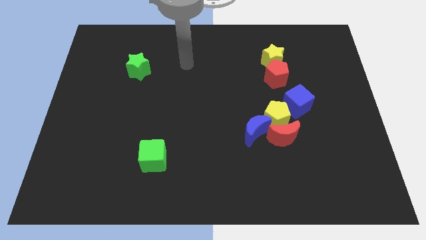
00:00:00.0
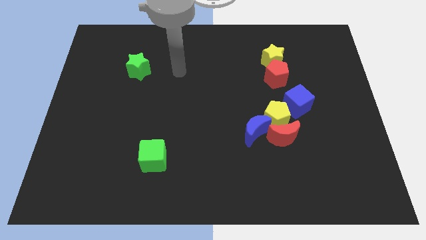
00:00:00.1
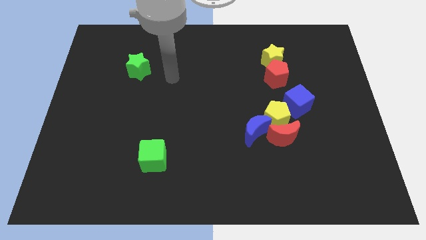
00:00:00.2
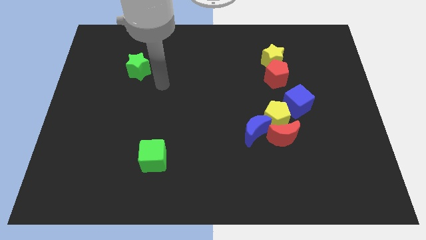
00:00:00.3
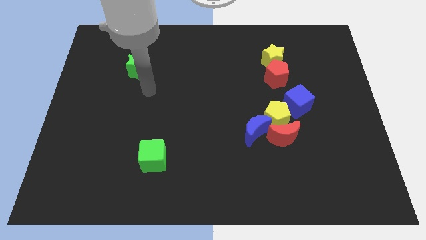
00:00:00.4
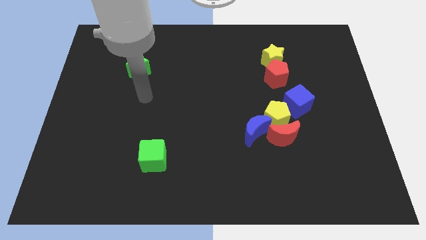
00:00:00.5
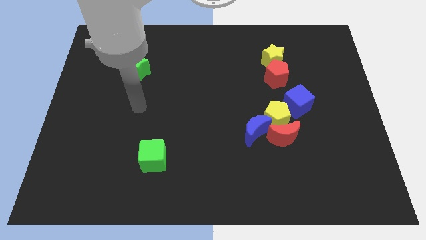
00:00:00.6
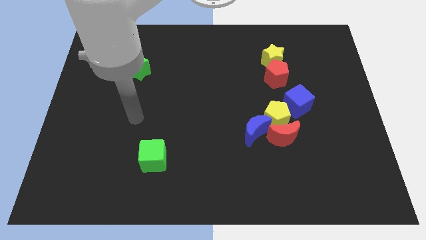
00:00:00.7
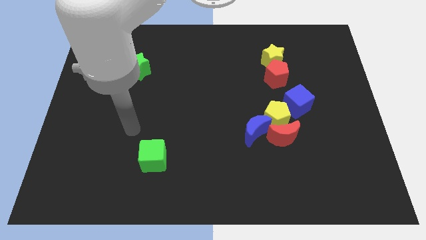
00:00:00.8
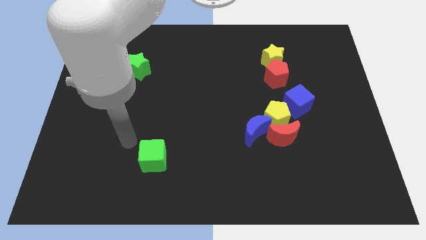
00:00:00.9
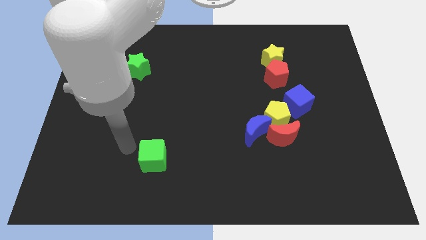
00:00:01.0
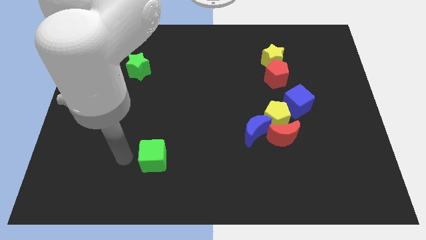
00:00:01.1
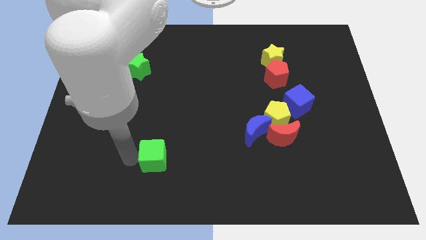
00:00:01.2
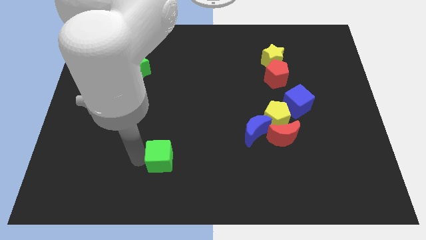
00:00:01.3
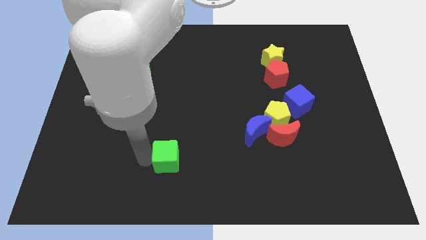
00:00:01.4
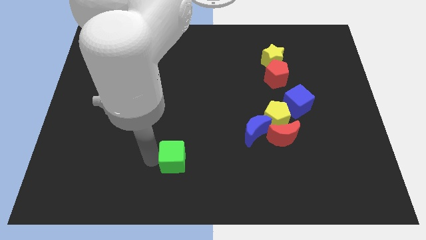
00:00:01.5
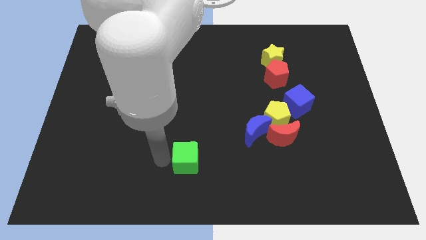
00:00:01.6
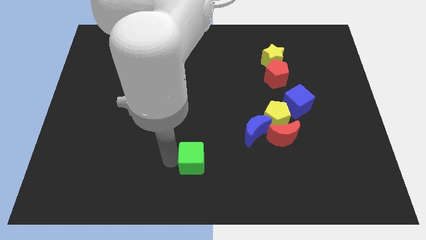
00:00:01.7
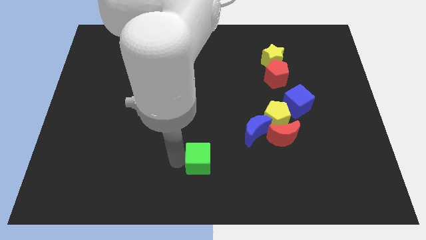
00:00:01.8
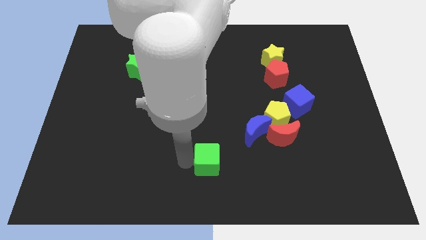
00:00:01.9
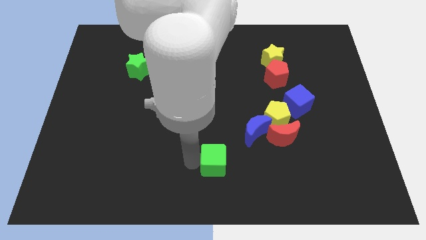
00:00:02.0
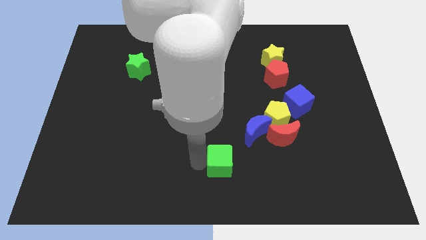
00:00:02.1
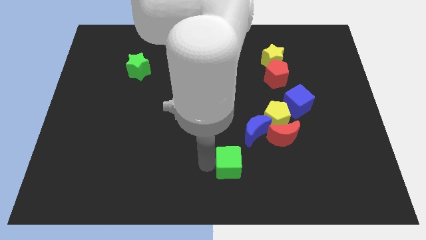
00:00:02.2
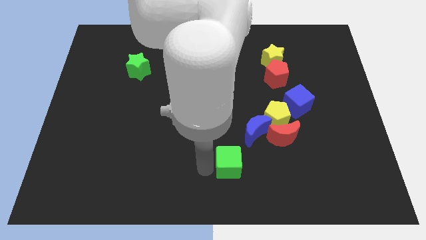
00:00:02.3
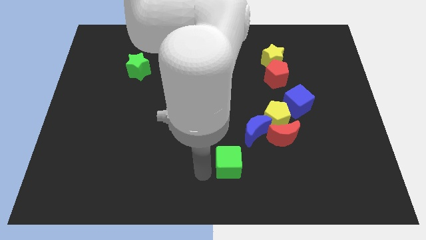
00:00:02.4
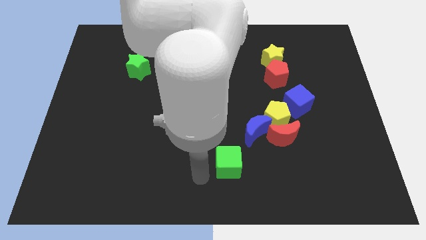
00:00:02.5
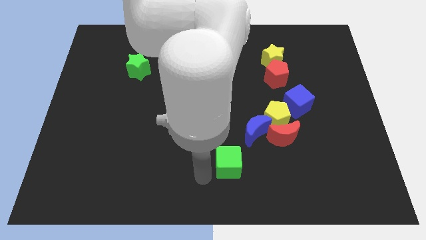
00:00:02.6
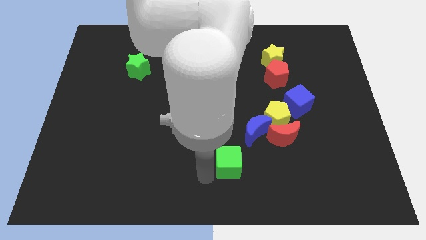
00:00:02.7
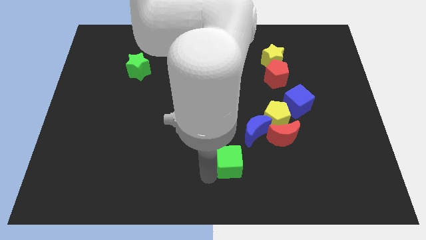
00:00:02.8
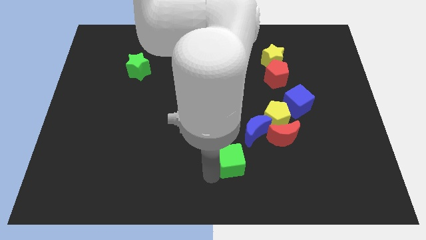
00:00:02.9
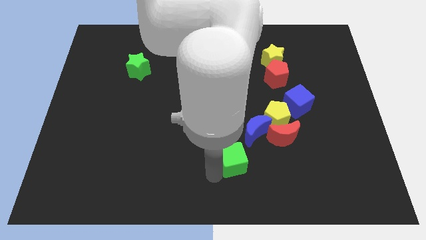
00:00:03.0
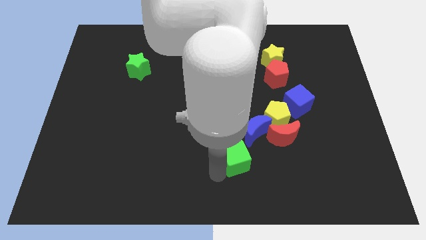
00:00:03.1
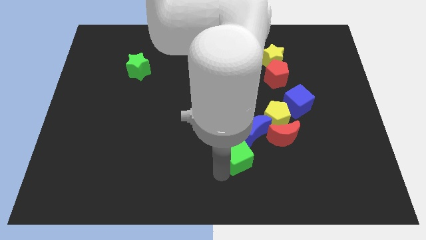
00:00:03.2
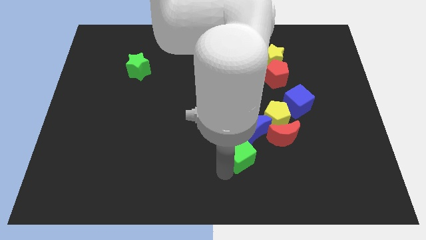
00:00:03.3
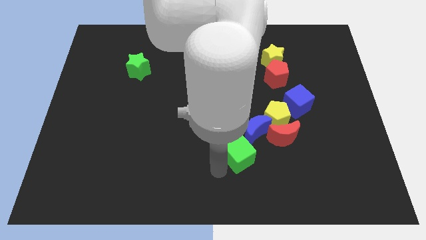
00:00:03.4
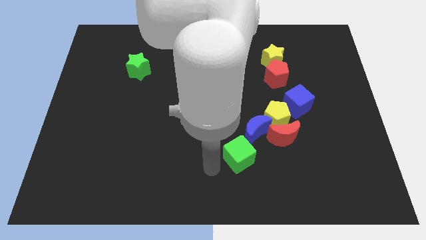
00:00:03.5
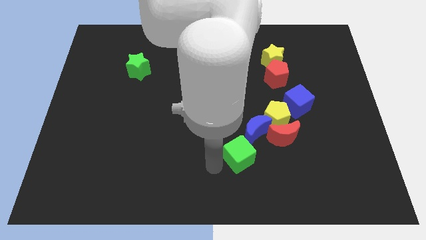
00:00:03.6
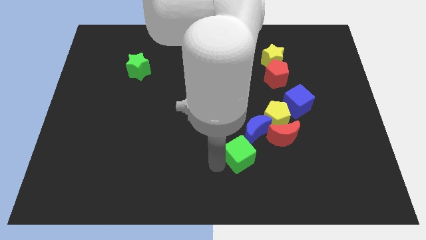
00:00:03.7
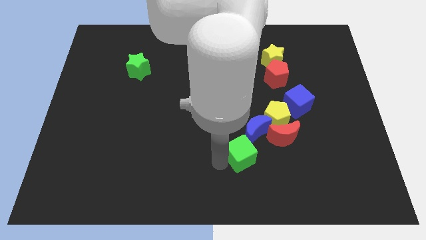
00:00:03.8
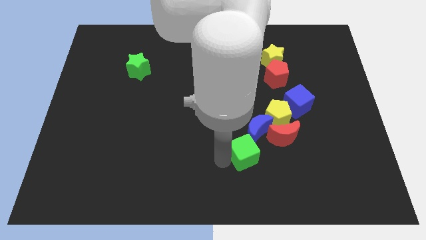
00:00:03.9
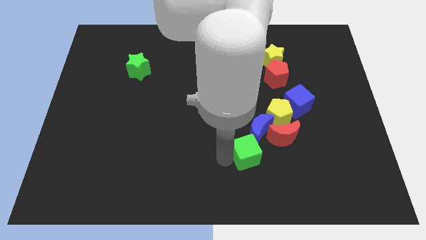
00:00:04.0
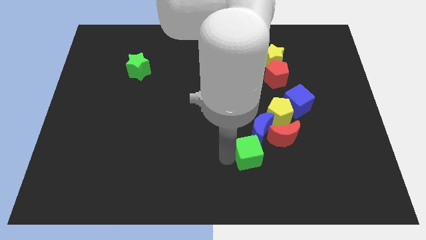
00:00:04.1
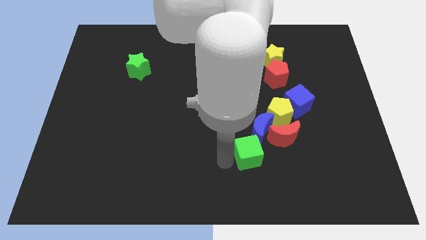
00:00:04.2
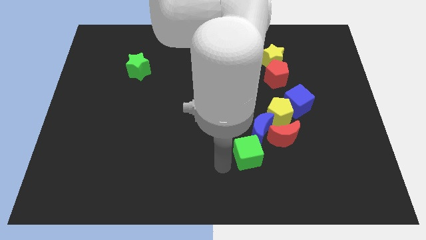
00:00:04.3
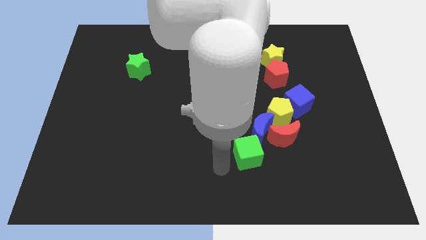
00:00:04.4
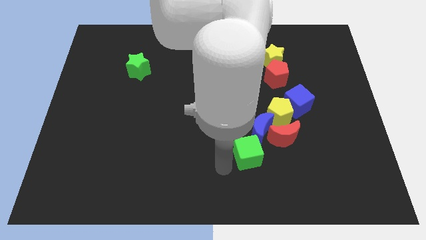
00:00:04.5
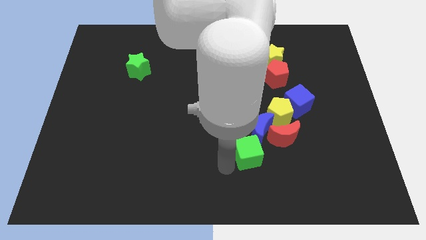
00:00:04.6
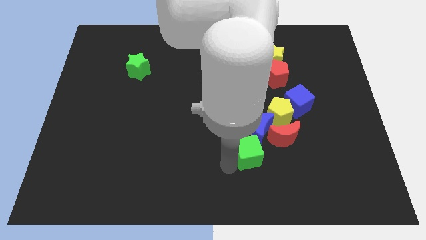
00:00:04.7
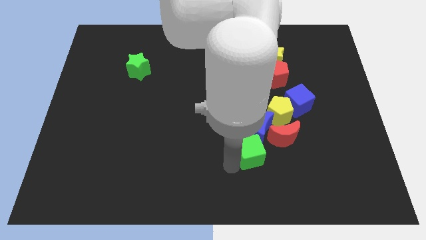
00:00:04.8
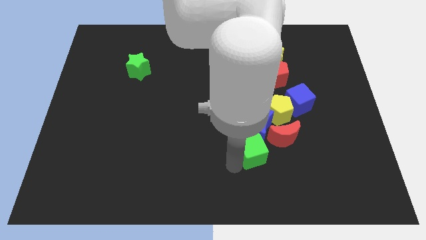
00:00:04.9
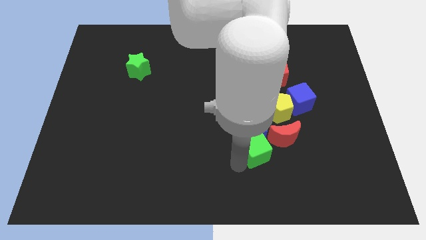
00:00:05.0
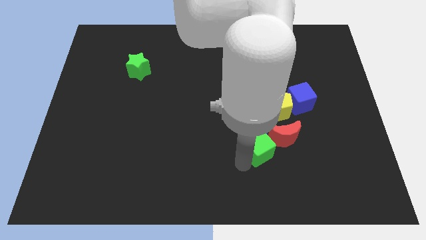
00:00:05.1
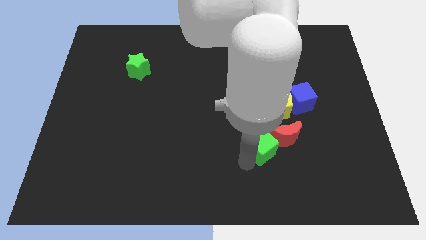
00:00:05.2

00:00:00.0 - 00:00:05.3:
slide the green cube next to the red moon

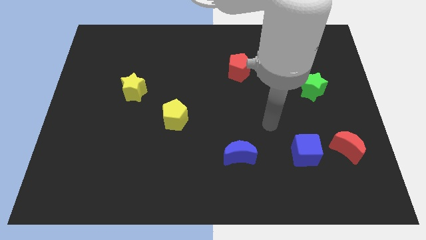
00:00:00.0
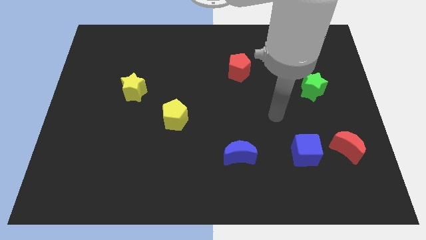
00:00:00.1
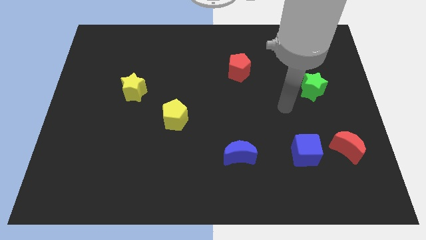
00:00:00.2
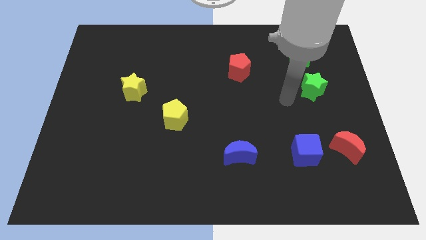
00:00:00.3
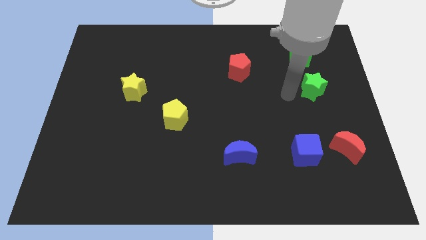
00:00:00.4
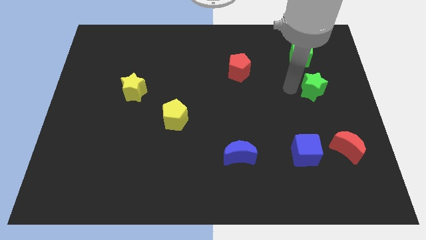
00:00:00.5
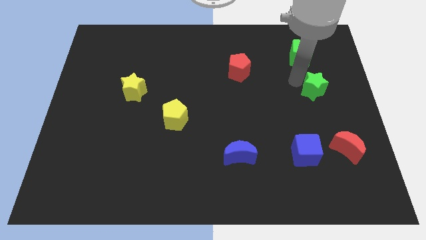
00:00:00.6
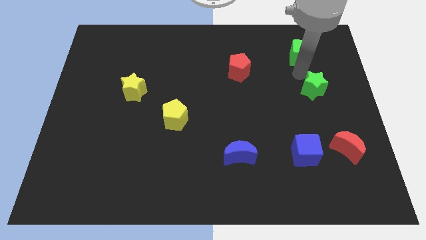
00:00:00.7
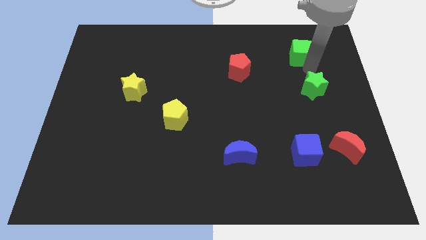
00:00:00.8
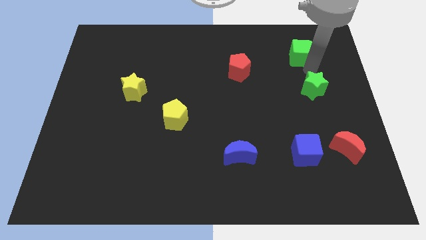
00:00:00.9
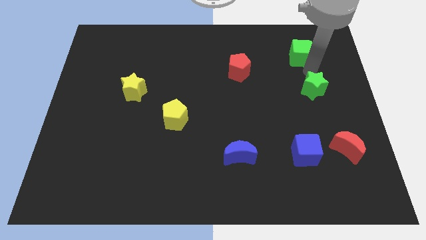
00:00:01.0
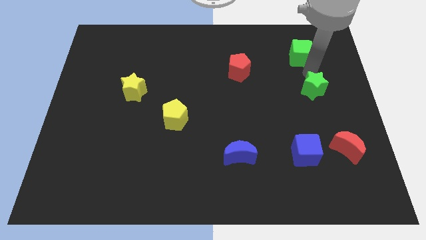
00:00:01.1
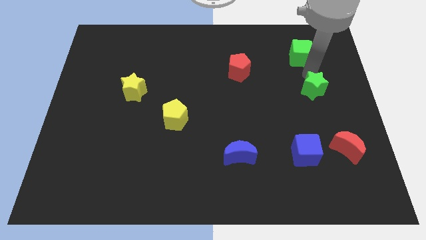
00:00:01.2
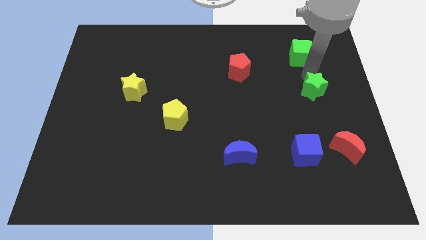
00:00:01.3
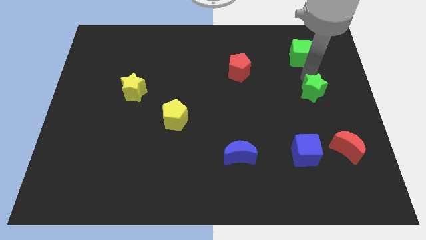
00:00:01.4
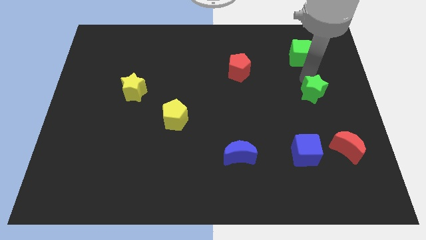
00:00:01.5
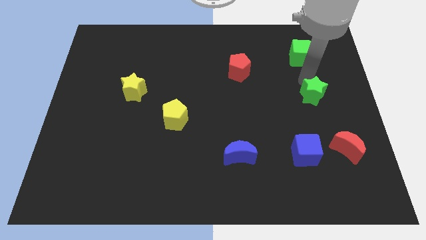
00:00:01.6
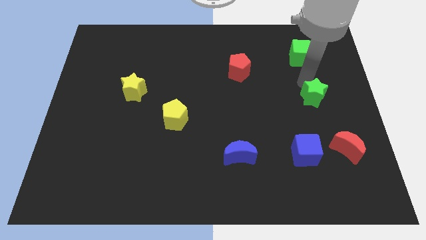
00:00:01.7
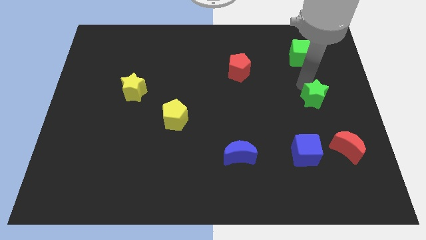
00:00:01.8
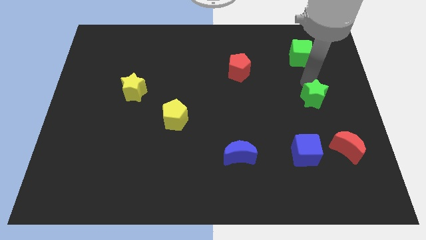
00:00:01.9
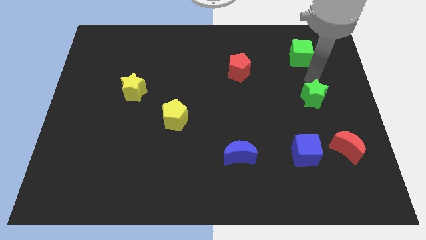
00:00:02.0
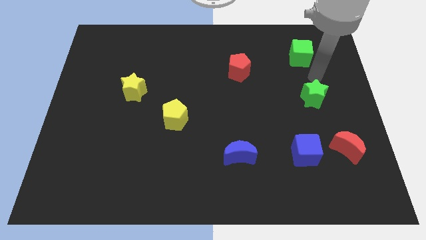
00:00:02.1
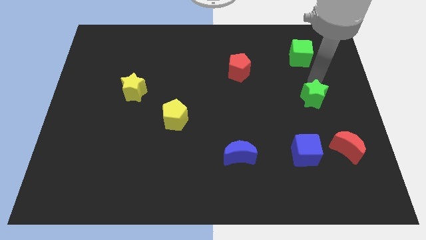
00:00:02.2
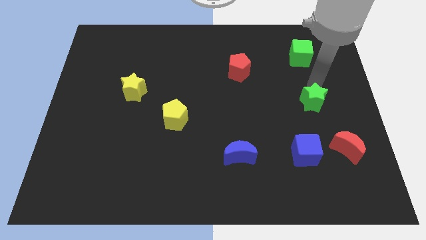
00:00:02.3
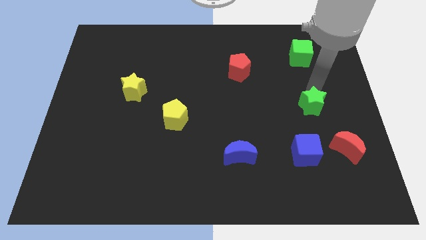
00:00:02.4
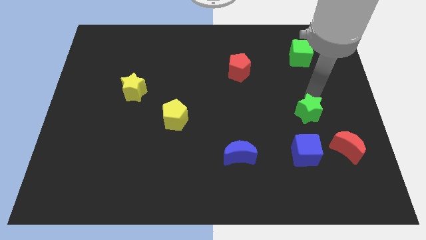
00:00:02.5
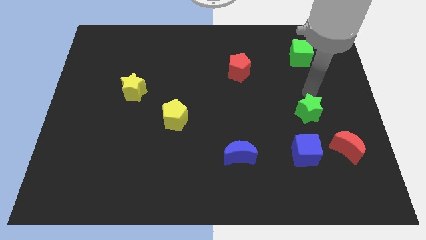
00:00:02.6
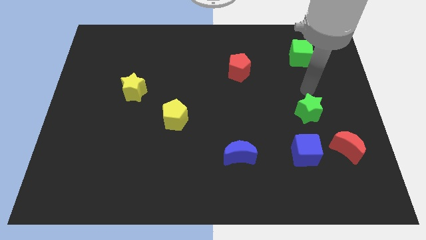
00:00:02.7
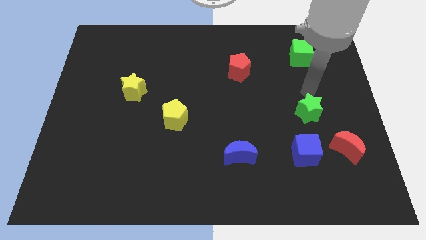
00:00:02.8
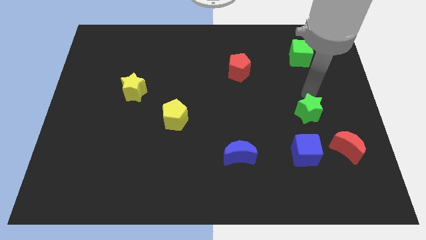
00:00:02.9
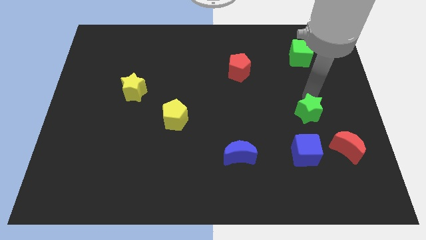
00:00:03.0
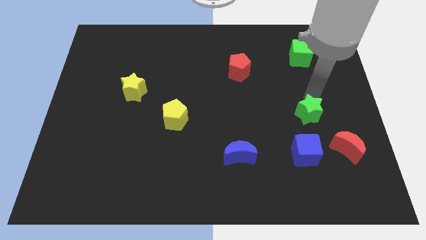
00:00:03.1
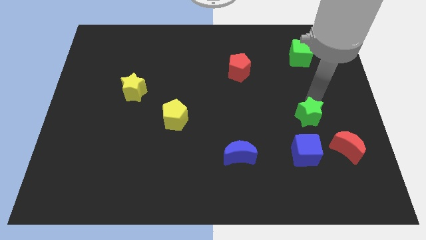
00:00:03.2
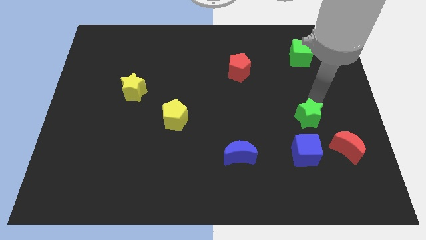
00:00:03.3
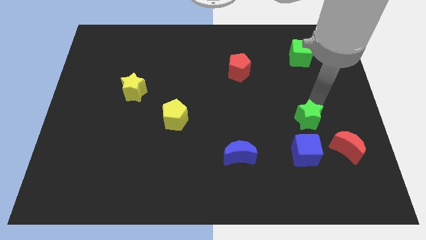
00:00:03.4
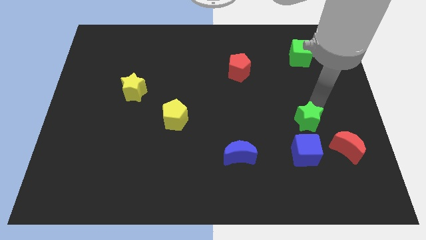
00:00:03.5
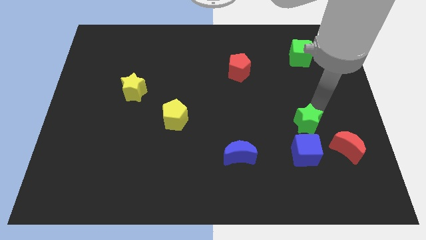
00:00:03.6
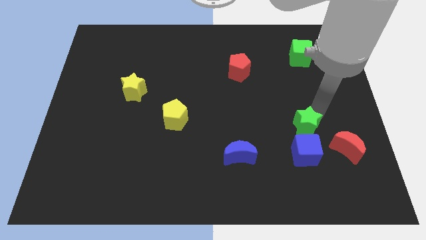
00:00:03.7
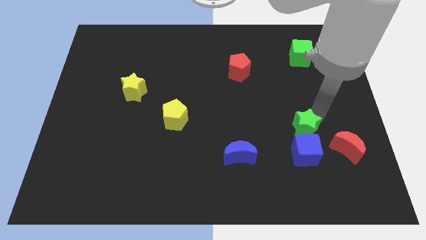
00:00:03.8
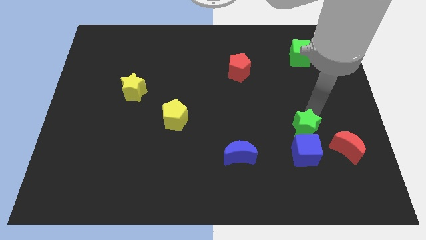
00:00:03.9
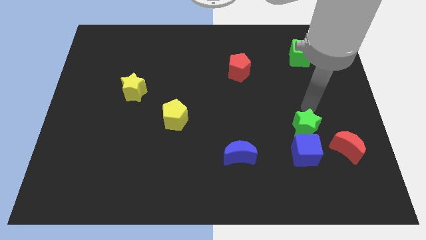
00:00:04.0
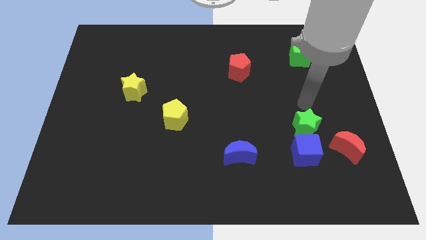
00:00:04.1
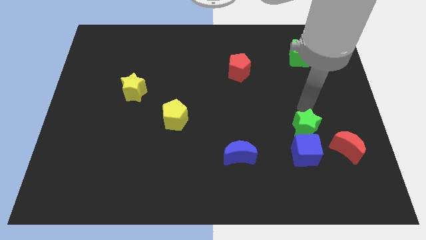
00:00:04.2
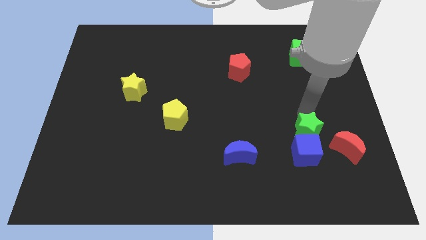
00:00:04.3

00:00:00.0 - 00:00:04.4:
push the green star towards the blue cube
